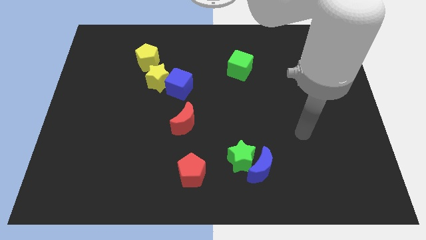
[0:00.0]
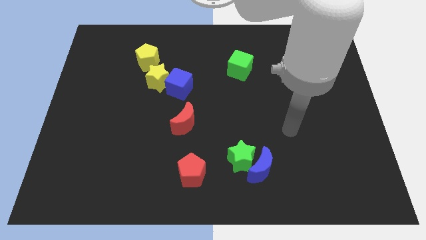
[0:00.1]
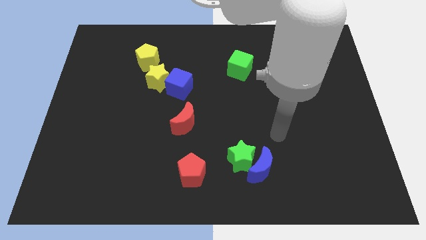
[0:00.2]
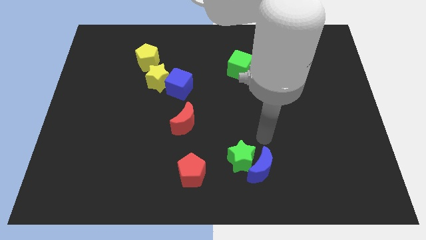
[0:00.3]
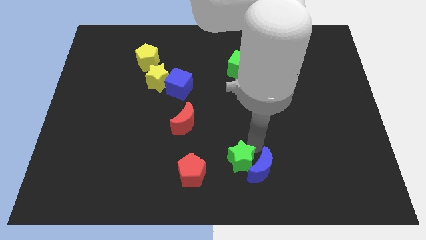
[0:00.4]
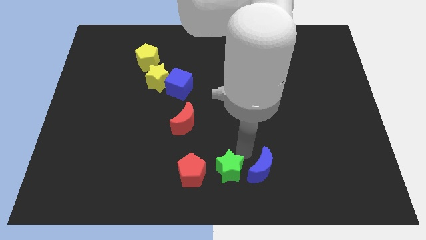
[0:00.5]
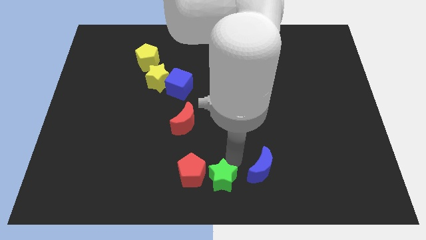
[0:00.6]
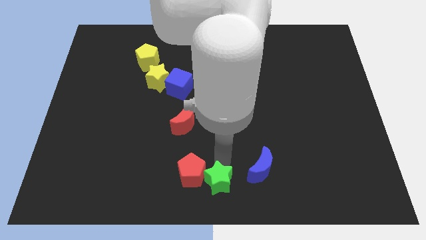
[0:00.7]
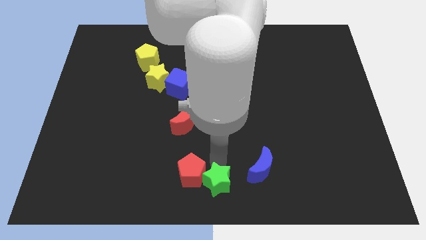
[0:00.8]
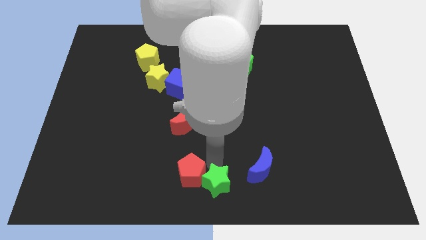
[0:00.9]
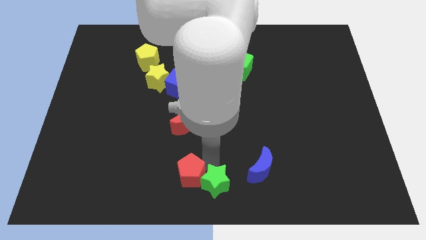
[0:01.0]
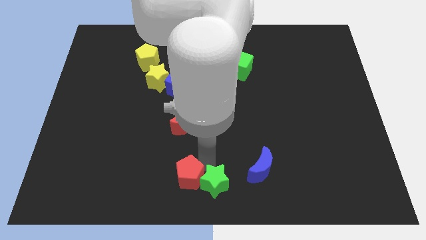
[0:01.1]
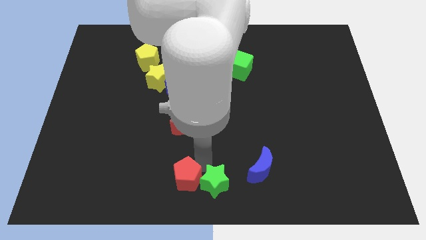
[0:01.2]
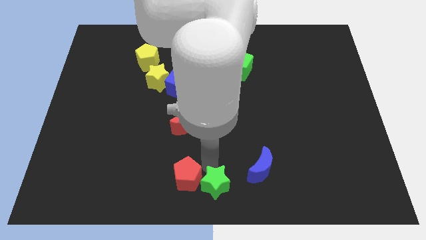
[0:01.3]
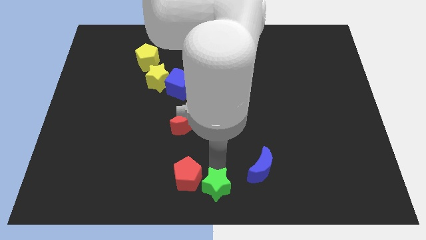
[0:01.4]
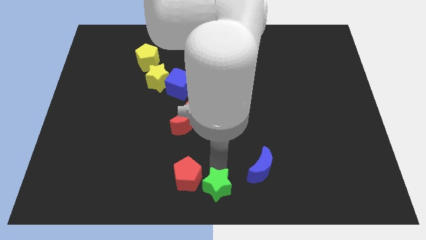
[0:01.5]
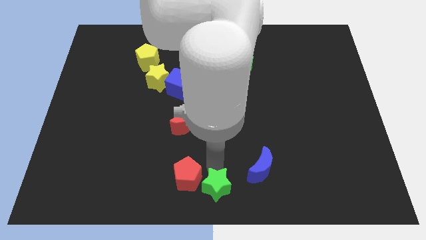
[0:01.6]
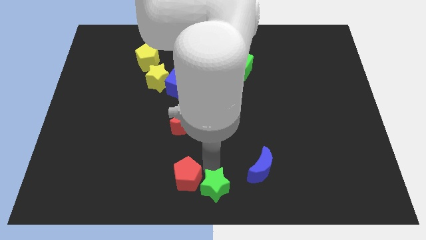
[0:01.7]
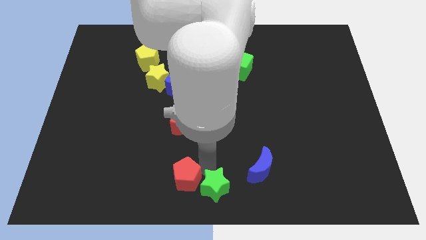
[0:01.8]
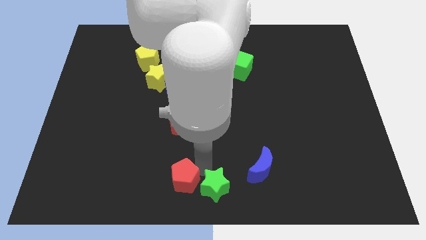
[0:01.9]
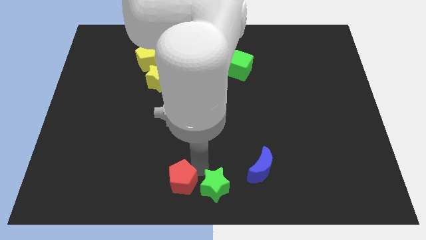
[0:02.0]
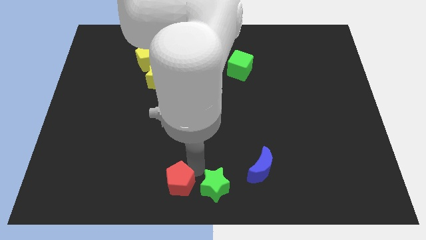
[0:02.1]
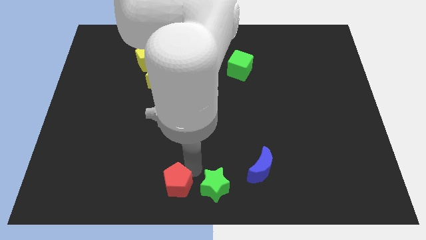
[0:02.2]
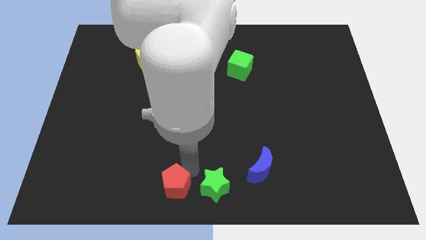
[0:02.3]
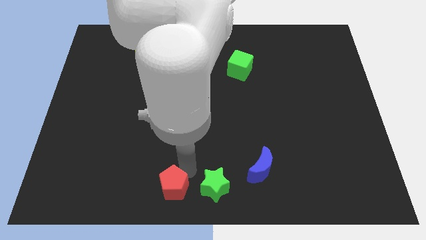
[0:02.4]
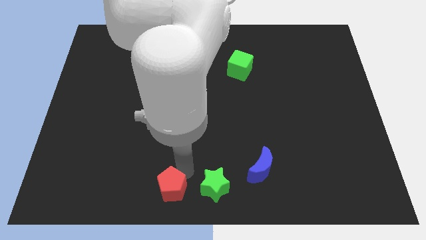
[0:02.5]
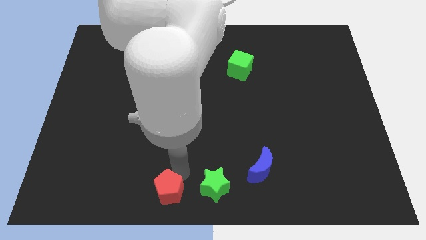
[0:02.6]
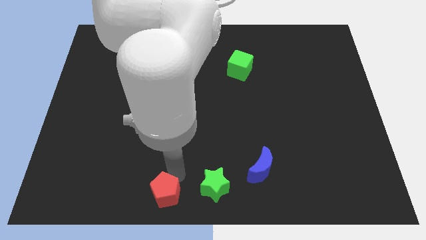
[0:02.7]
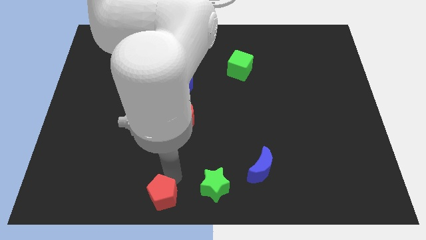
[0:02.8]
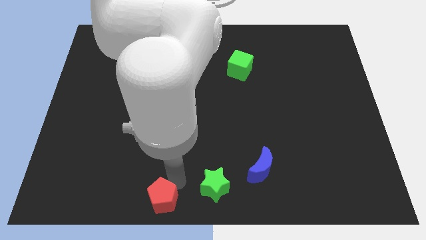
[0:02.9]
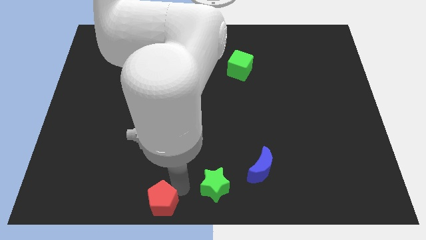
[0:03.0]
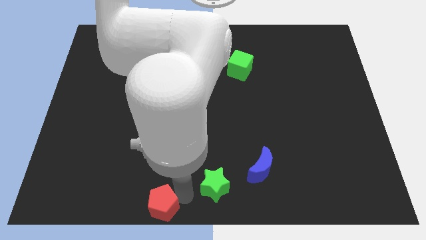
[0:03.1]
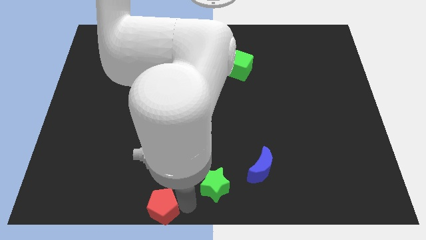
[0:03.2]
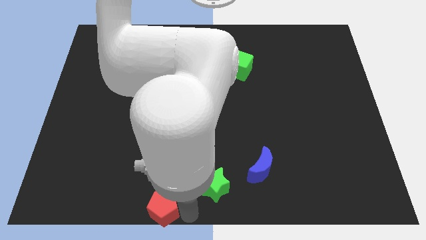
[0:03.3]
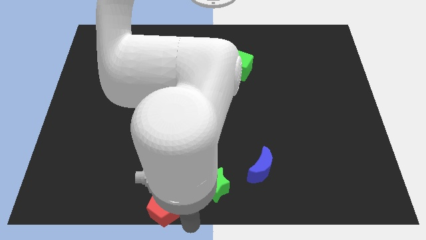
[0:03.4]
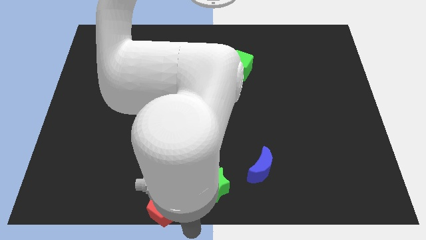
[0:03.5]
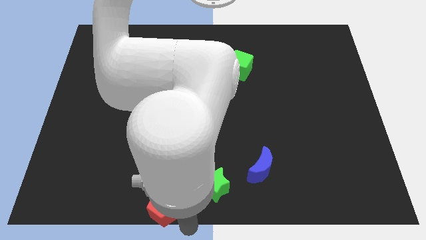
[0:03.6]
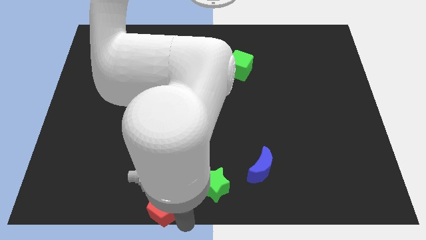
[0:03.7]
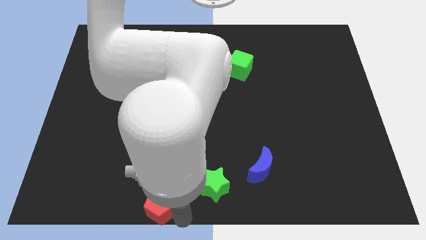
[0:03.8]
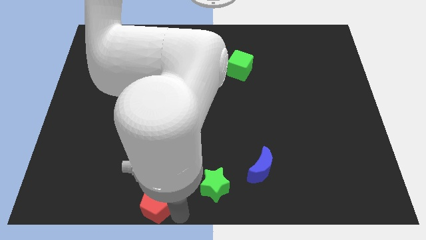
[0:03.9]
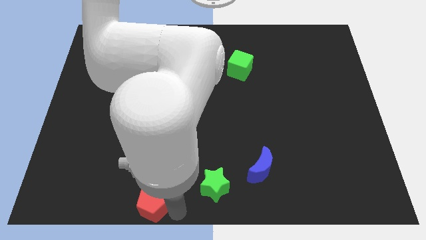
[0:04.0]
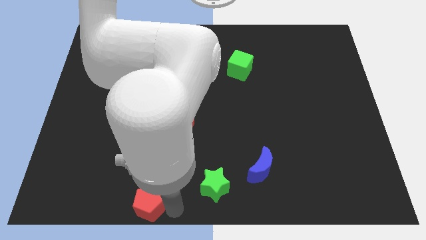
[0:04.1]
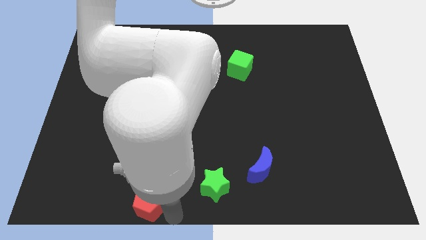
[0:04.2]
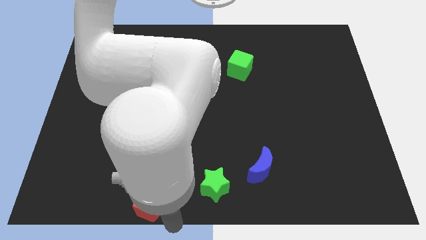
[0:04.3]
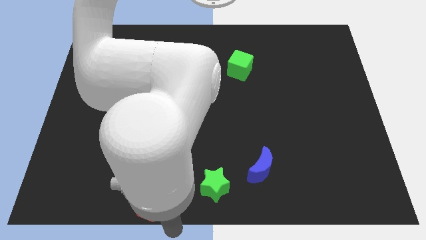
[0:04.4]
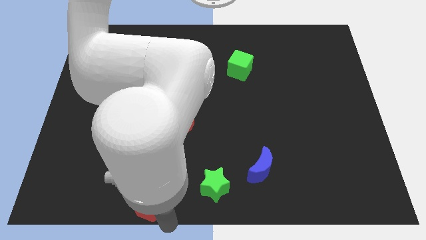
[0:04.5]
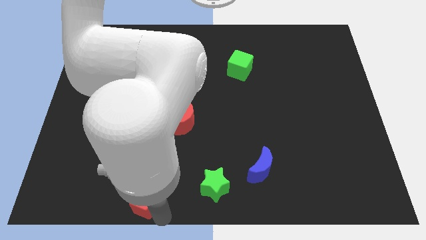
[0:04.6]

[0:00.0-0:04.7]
slightly push the red pentagon left

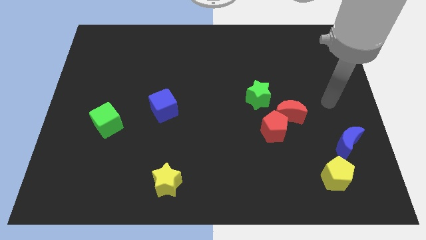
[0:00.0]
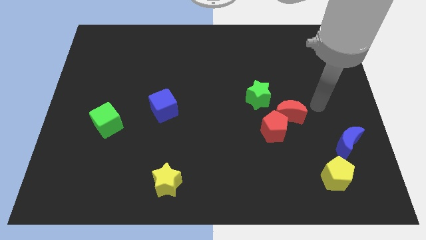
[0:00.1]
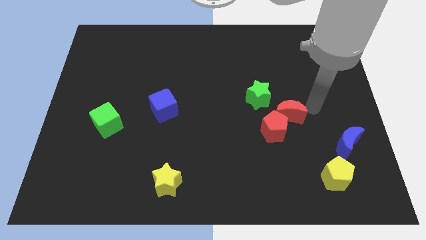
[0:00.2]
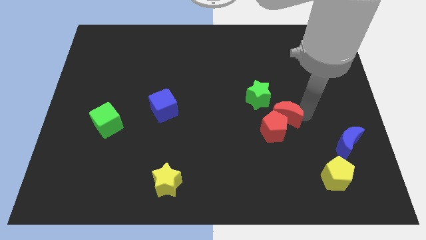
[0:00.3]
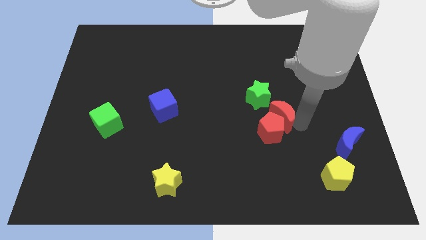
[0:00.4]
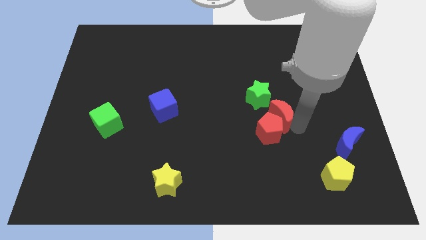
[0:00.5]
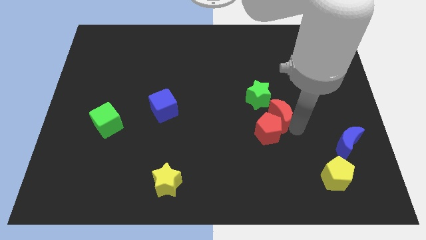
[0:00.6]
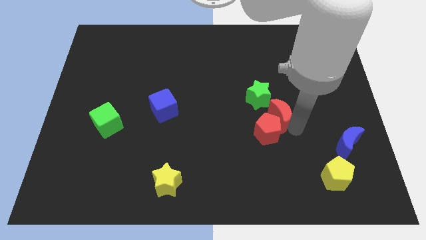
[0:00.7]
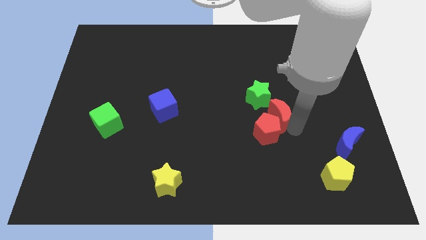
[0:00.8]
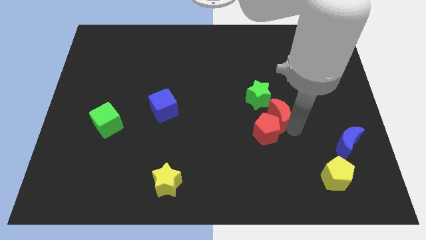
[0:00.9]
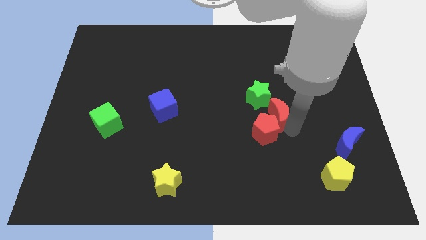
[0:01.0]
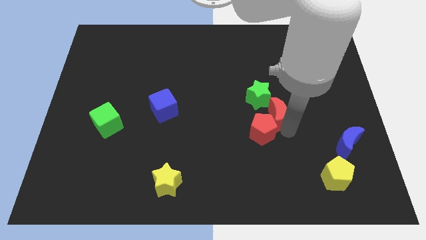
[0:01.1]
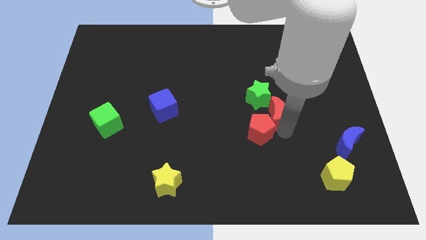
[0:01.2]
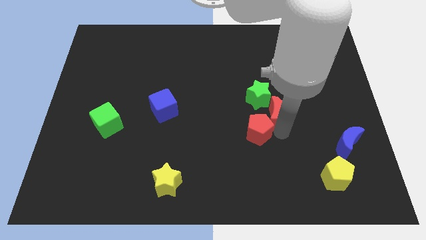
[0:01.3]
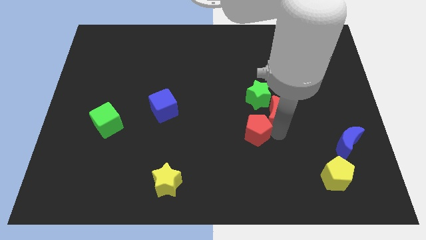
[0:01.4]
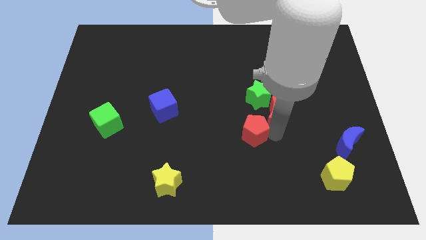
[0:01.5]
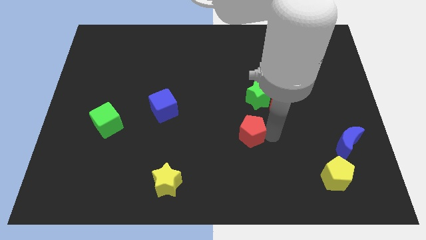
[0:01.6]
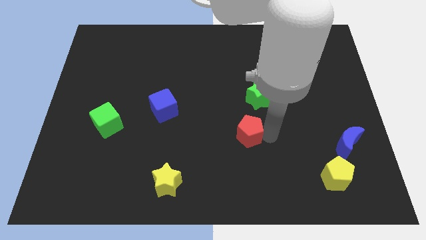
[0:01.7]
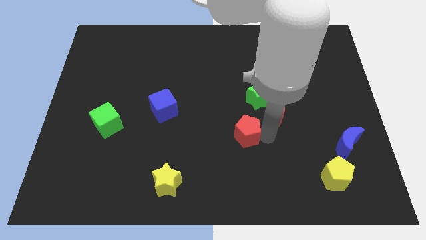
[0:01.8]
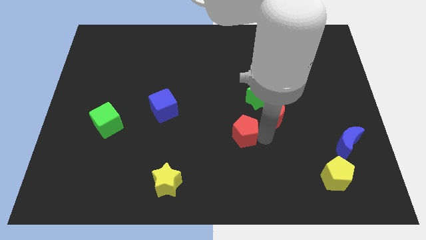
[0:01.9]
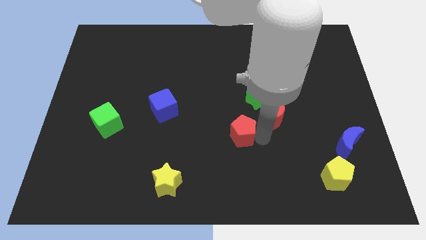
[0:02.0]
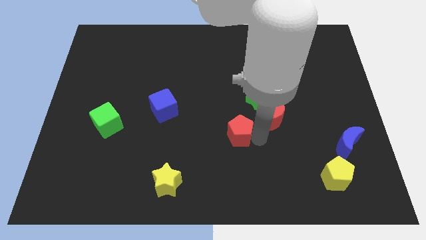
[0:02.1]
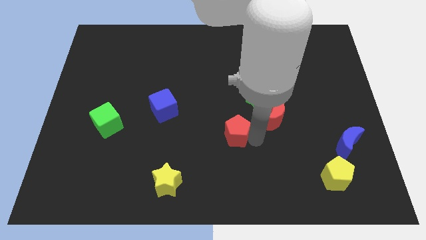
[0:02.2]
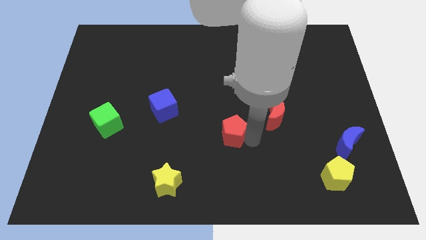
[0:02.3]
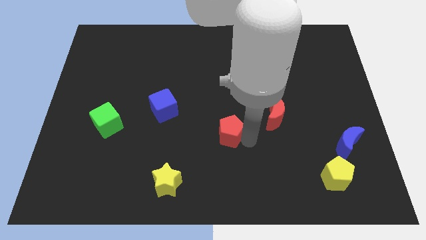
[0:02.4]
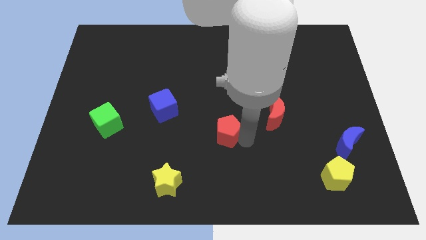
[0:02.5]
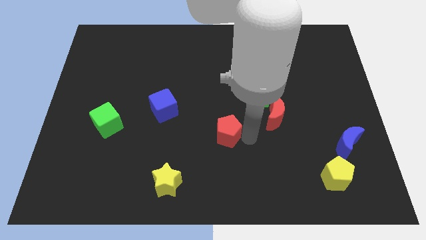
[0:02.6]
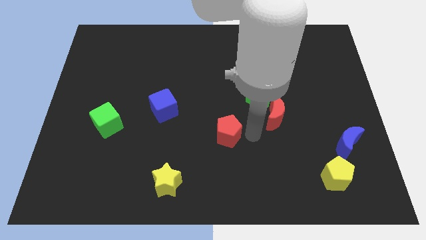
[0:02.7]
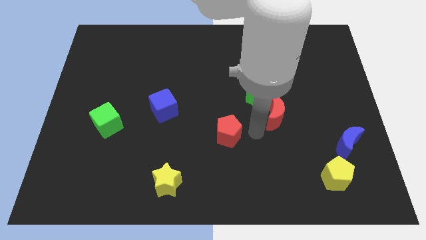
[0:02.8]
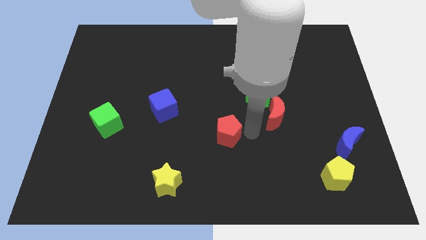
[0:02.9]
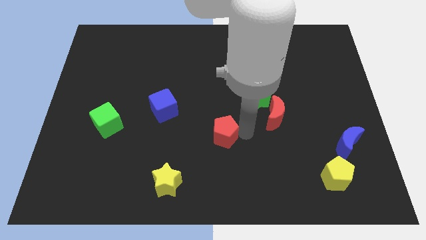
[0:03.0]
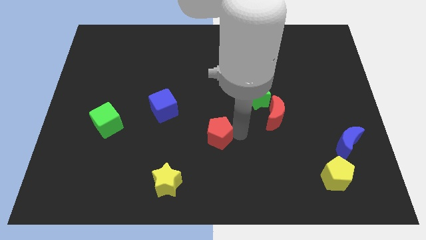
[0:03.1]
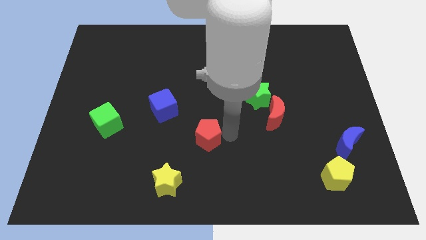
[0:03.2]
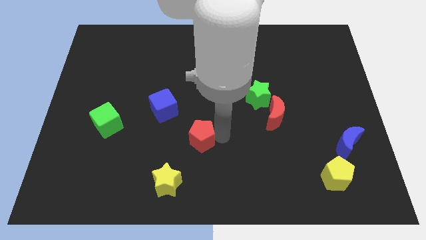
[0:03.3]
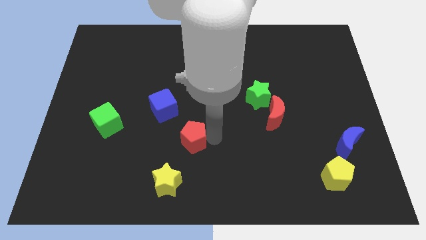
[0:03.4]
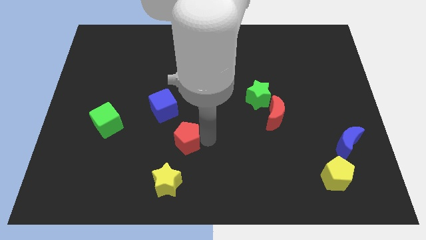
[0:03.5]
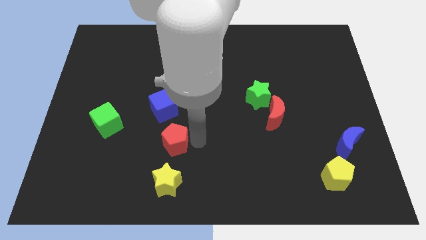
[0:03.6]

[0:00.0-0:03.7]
move the red pentagon to the left

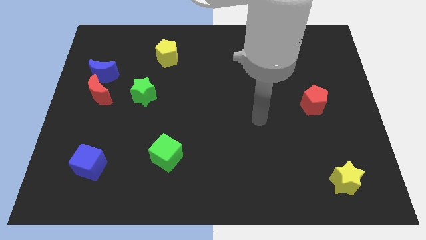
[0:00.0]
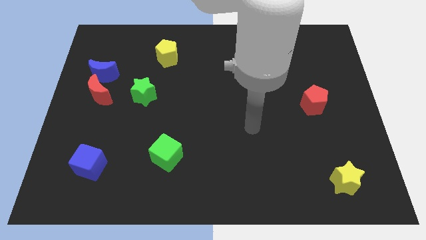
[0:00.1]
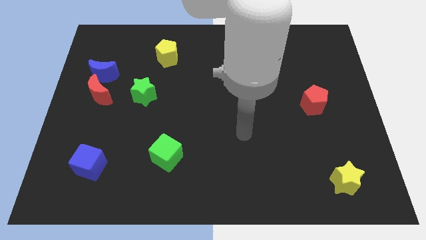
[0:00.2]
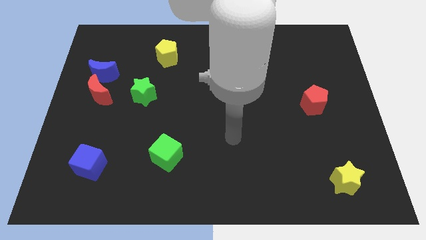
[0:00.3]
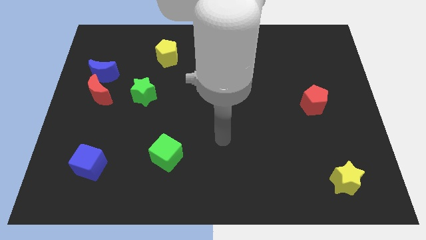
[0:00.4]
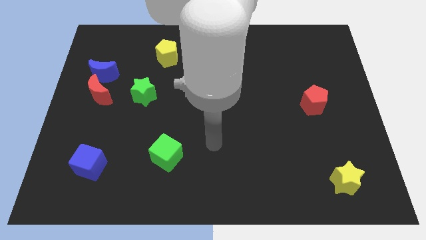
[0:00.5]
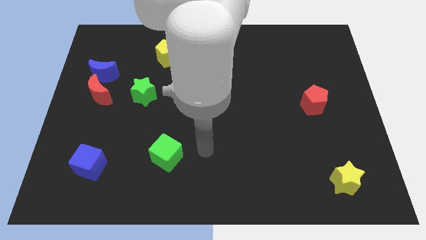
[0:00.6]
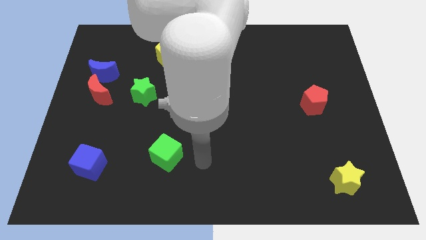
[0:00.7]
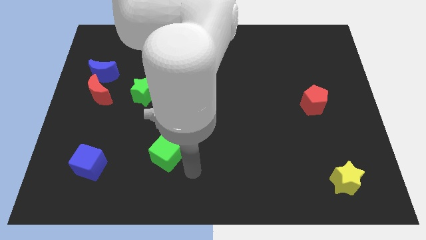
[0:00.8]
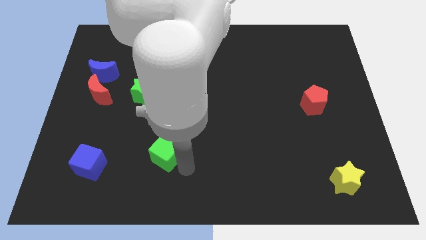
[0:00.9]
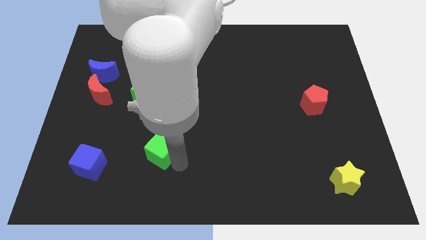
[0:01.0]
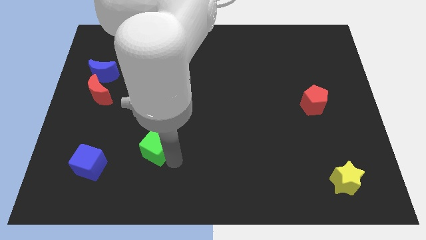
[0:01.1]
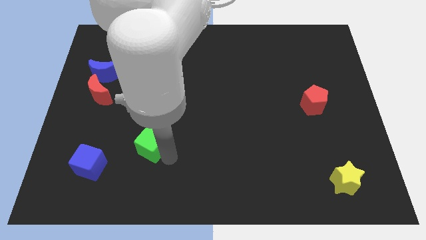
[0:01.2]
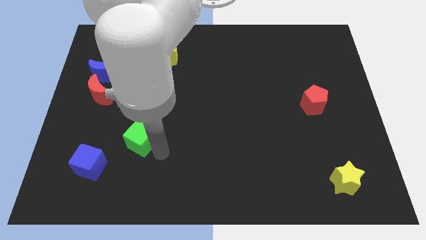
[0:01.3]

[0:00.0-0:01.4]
slide the green cube upwards and then to the left a little
